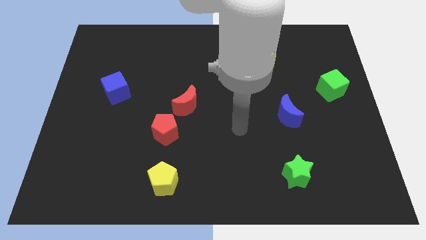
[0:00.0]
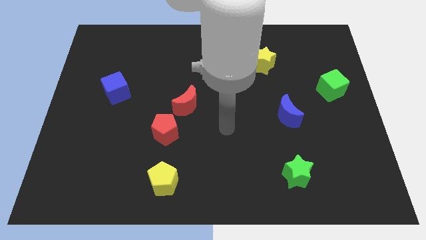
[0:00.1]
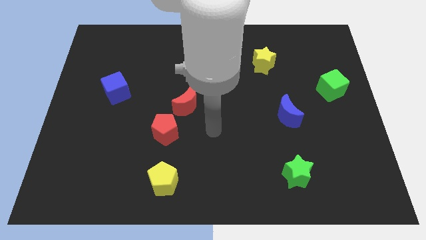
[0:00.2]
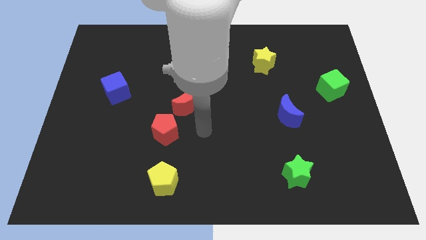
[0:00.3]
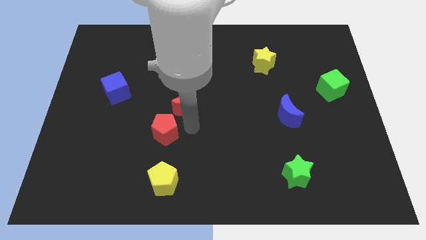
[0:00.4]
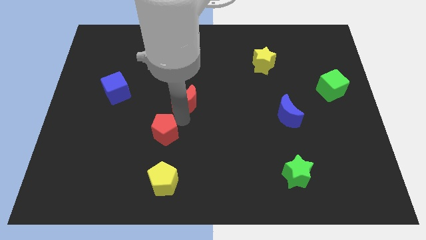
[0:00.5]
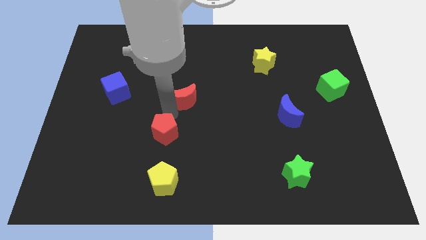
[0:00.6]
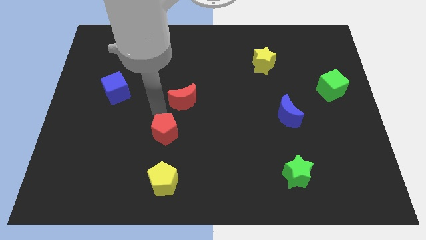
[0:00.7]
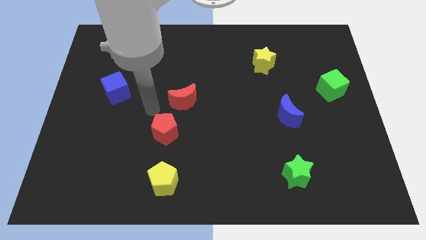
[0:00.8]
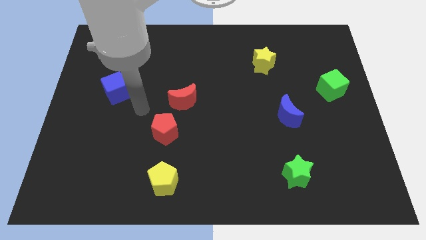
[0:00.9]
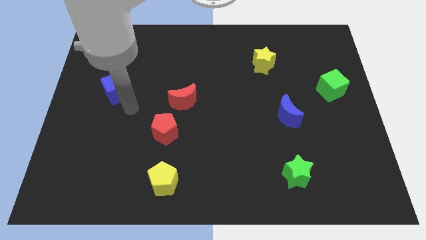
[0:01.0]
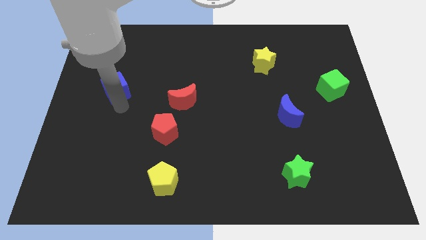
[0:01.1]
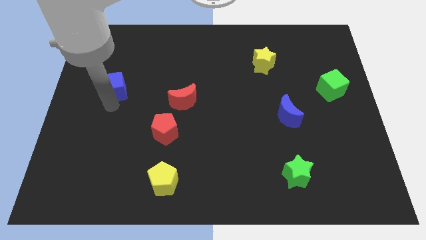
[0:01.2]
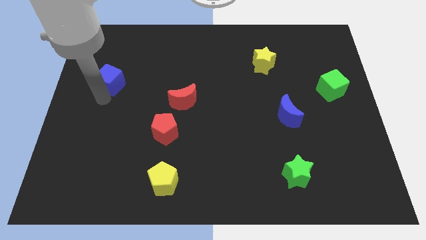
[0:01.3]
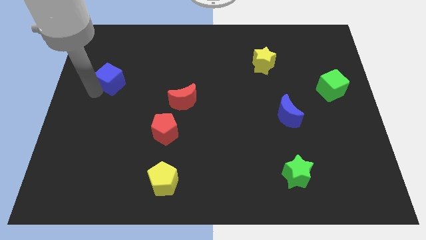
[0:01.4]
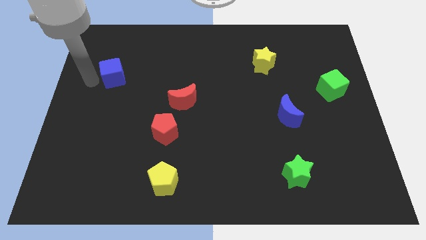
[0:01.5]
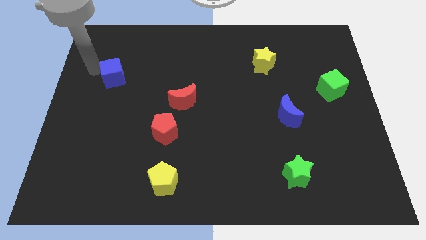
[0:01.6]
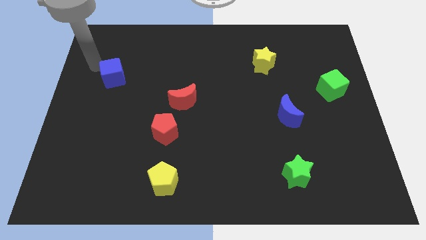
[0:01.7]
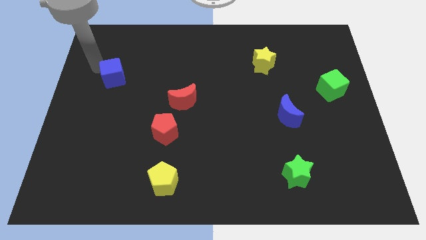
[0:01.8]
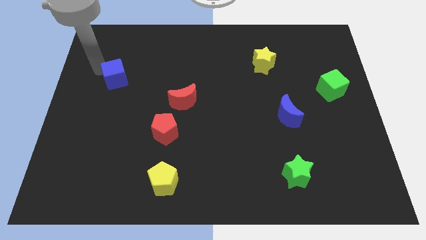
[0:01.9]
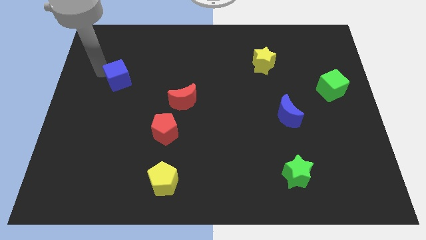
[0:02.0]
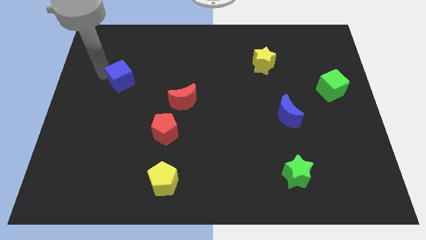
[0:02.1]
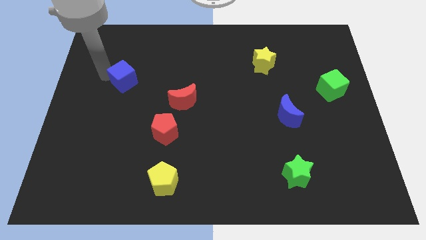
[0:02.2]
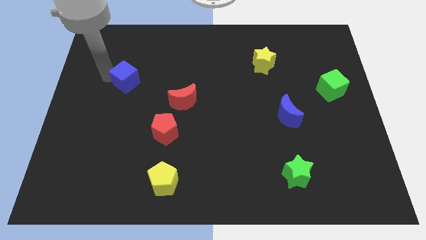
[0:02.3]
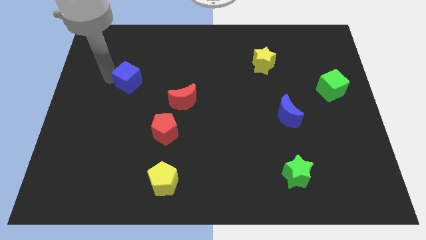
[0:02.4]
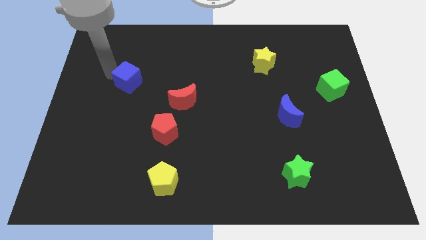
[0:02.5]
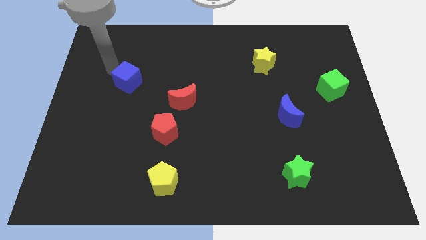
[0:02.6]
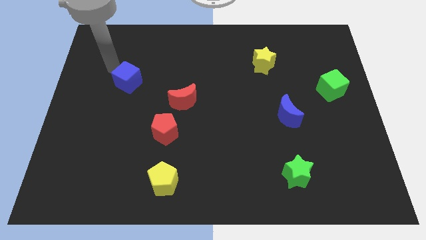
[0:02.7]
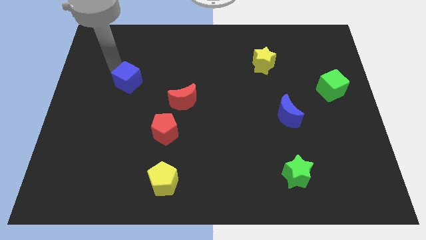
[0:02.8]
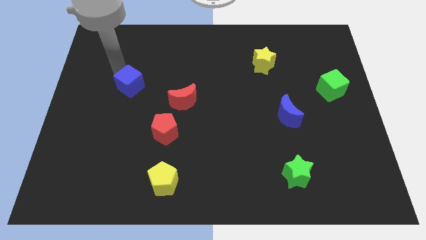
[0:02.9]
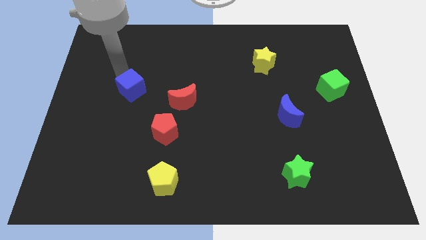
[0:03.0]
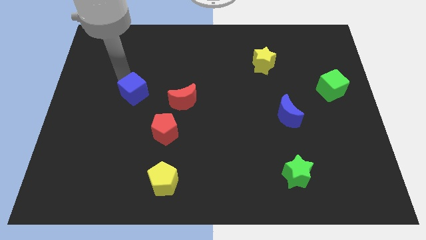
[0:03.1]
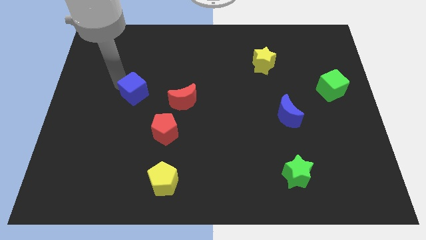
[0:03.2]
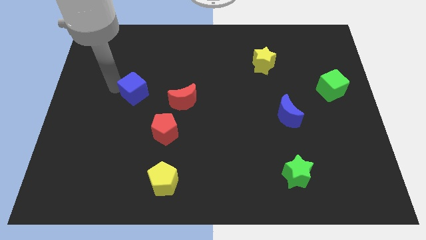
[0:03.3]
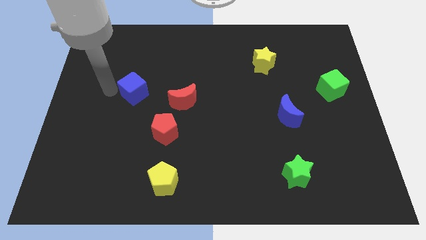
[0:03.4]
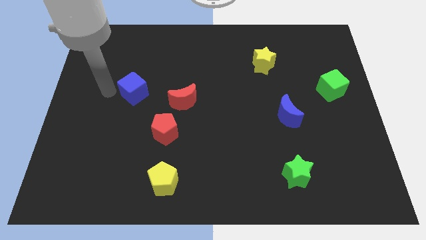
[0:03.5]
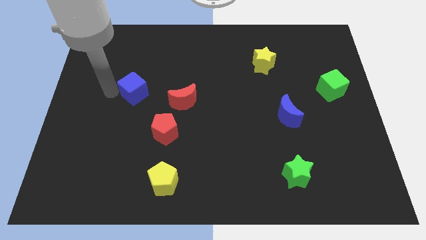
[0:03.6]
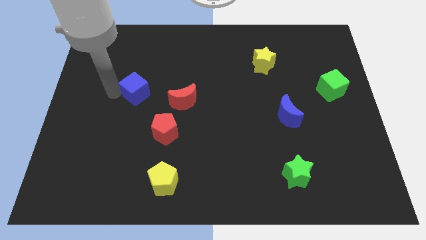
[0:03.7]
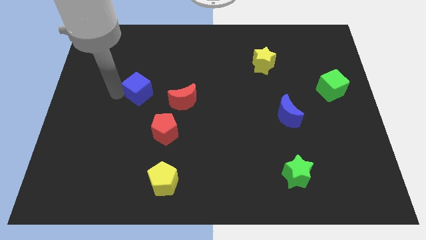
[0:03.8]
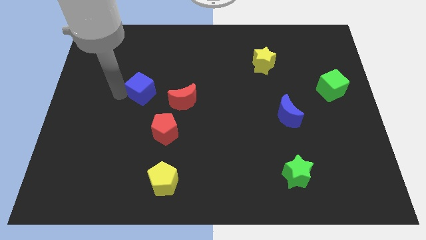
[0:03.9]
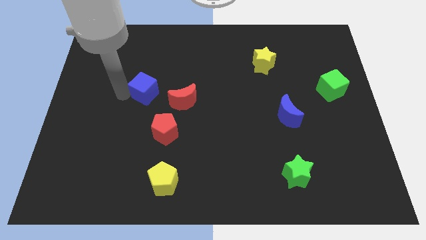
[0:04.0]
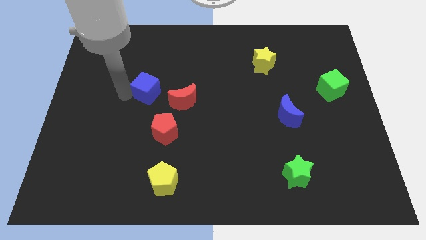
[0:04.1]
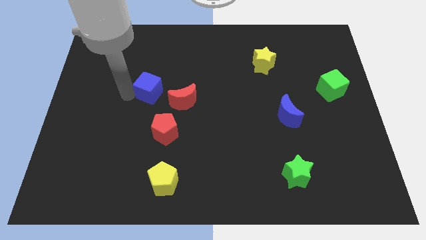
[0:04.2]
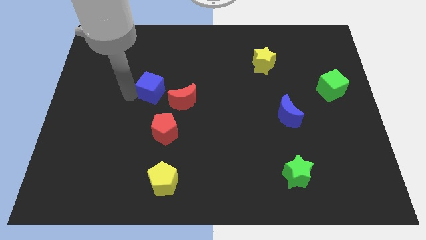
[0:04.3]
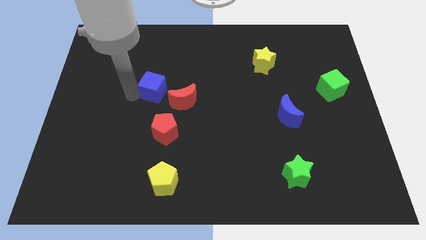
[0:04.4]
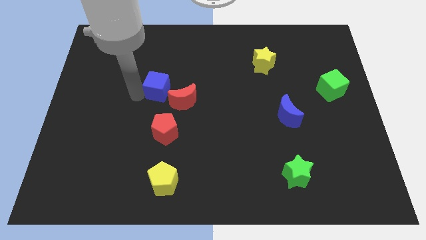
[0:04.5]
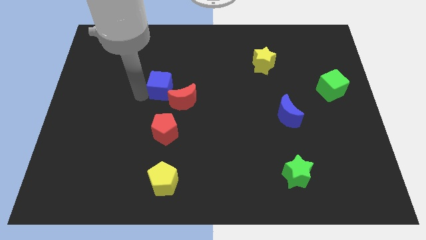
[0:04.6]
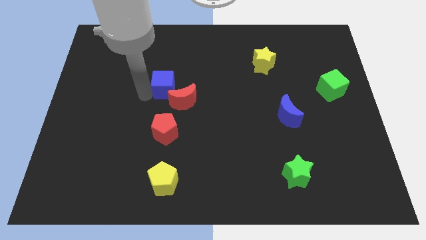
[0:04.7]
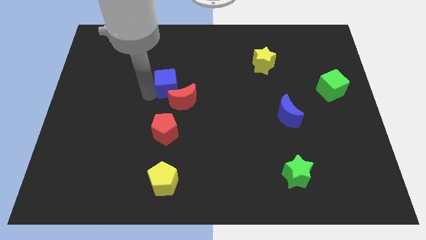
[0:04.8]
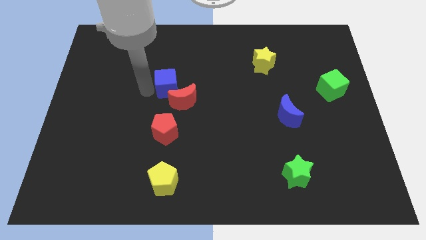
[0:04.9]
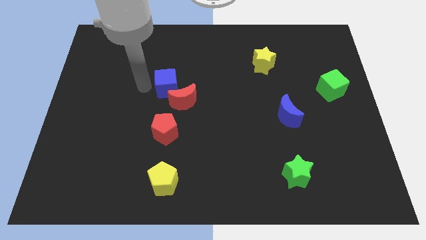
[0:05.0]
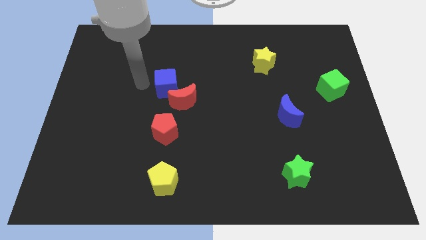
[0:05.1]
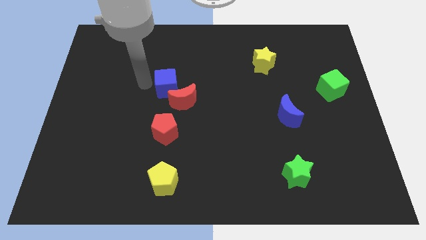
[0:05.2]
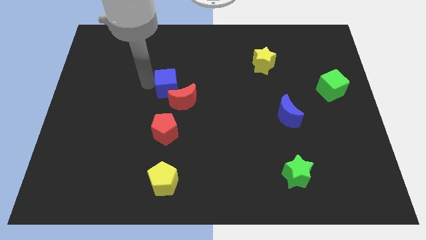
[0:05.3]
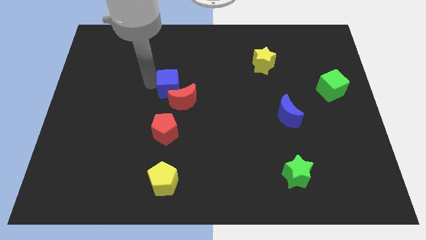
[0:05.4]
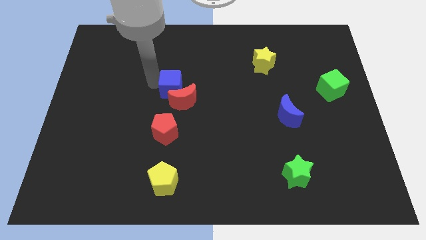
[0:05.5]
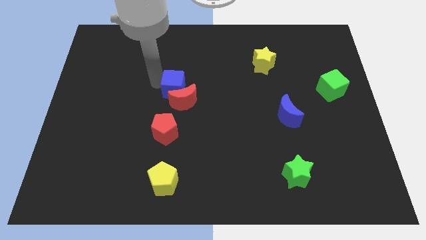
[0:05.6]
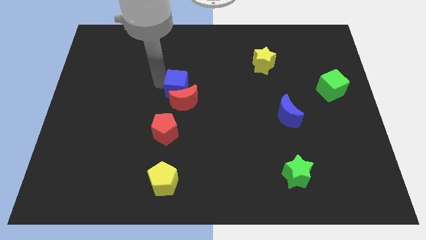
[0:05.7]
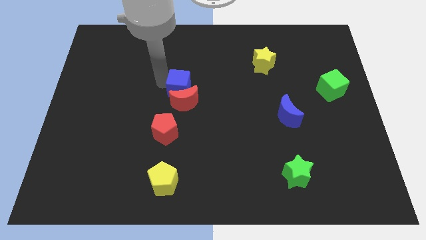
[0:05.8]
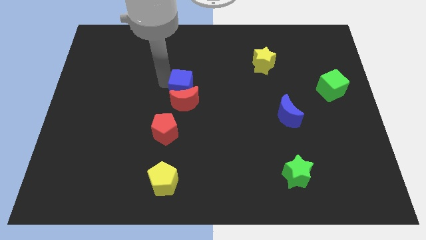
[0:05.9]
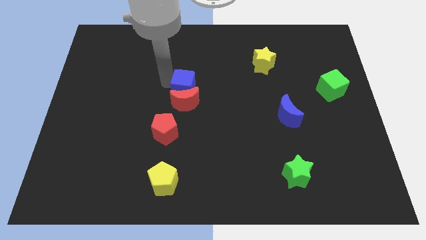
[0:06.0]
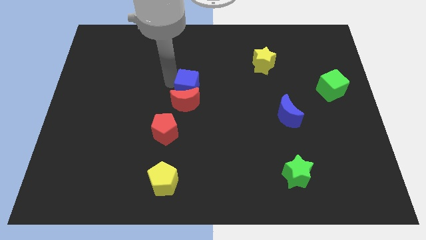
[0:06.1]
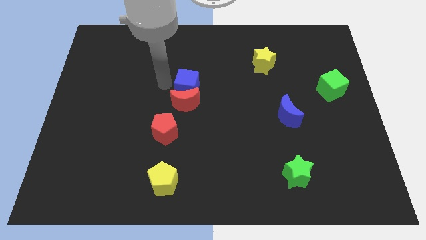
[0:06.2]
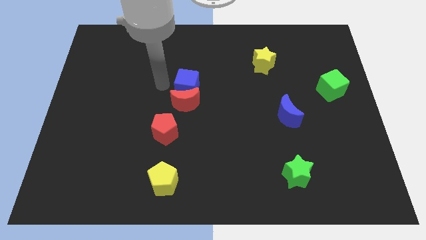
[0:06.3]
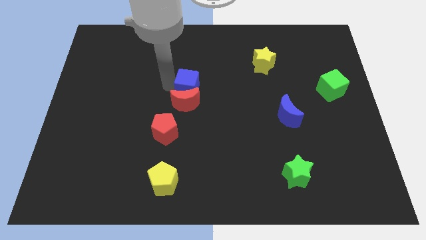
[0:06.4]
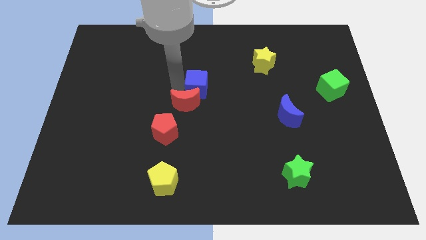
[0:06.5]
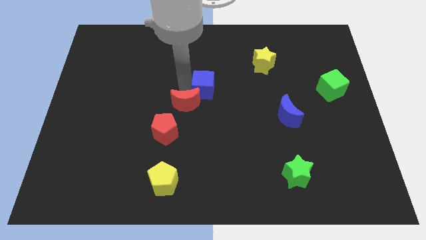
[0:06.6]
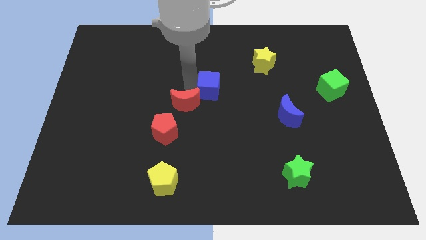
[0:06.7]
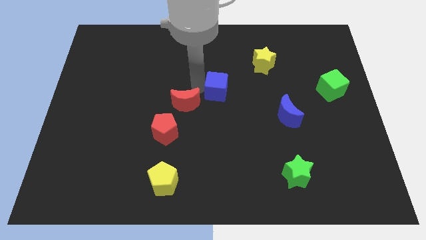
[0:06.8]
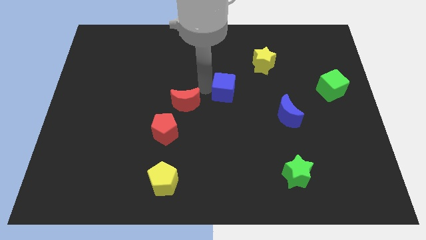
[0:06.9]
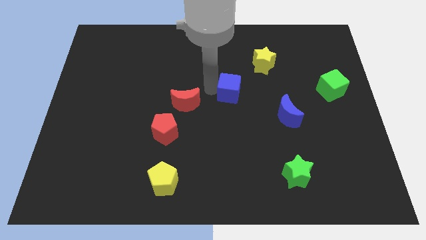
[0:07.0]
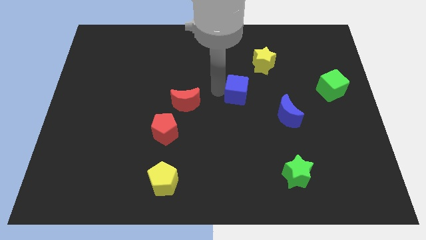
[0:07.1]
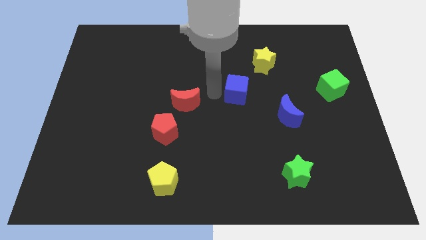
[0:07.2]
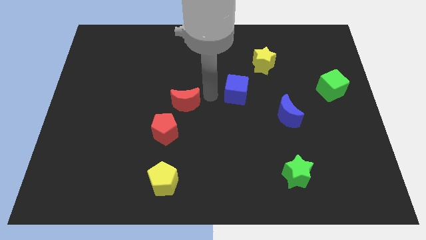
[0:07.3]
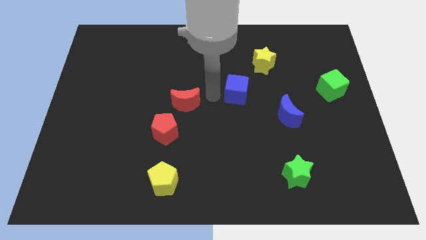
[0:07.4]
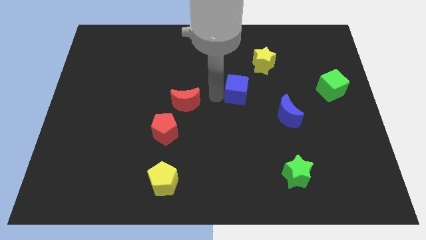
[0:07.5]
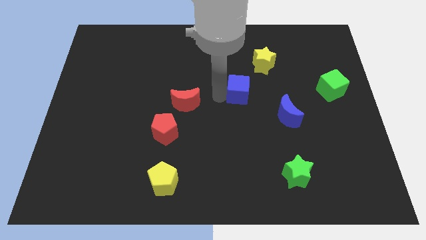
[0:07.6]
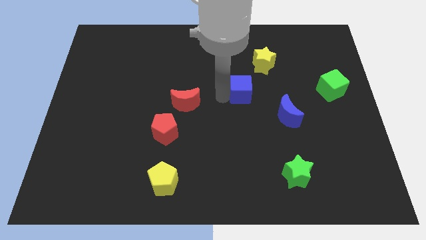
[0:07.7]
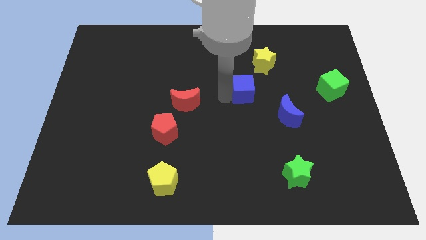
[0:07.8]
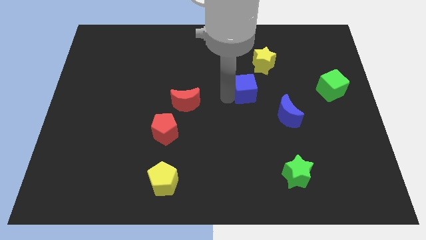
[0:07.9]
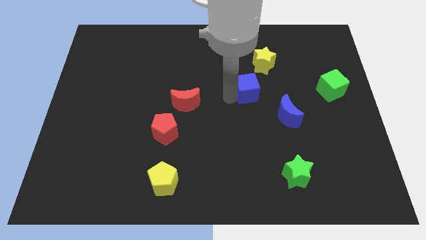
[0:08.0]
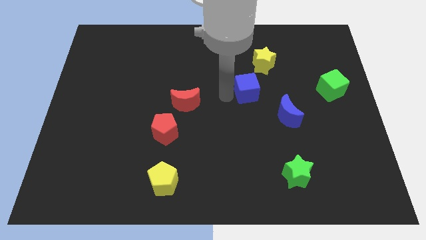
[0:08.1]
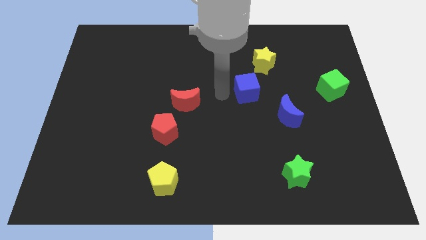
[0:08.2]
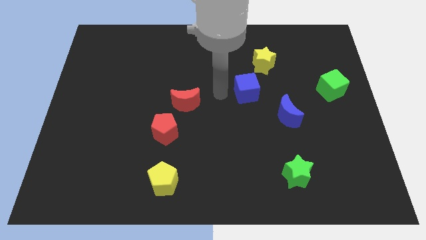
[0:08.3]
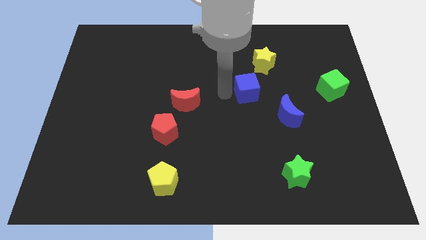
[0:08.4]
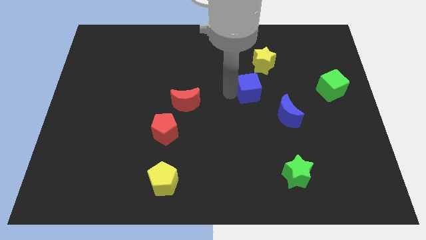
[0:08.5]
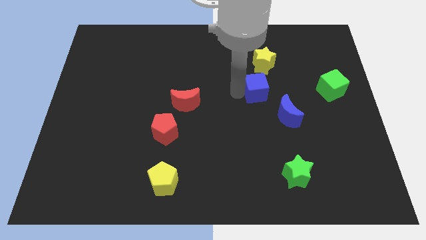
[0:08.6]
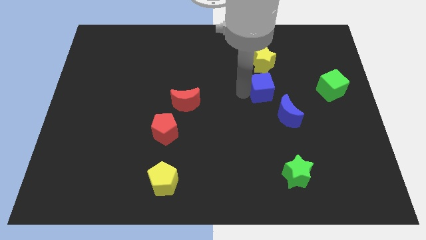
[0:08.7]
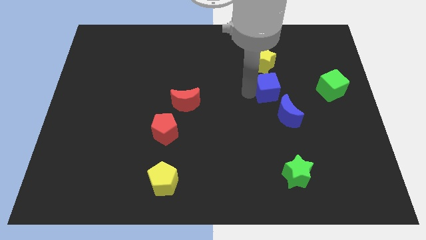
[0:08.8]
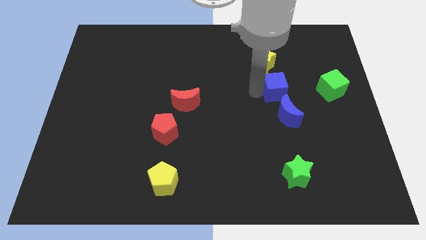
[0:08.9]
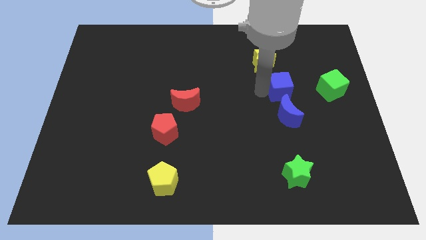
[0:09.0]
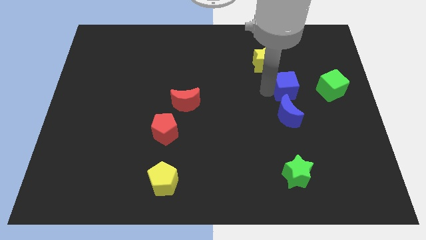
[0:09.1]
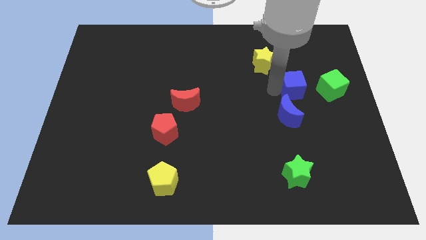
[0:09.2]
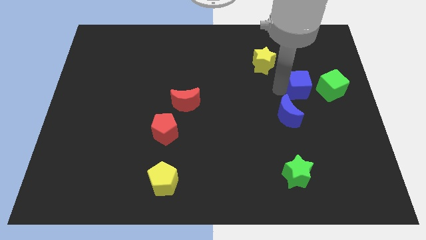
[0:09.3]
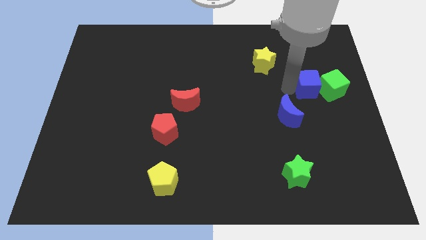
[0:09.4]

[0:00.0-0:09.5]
slide the blue cube towards the green cube
